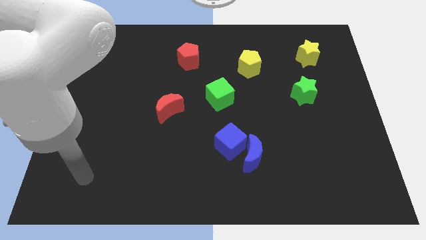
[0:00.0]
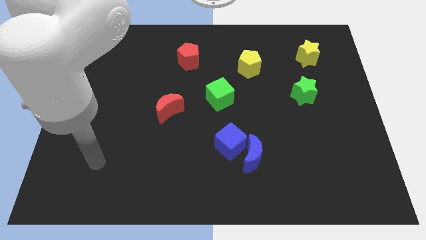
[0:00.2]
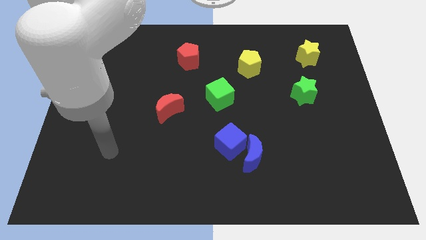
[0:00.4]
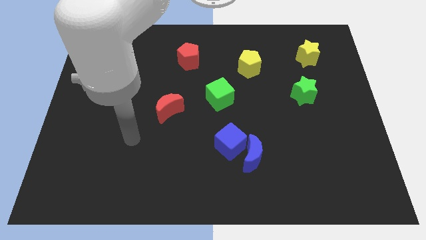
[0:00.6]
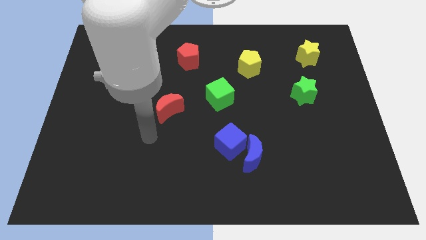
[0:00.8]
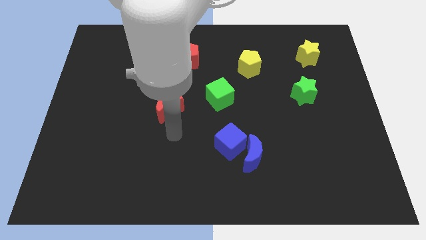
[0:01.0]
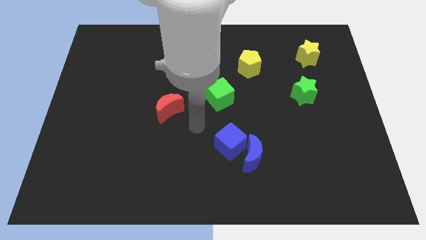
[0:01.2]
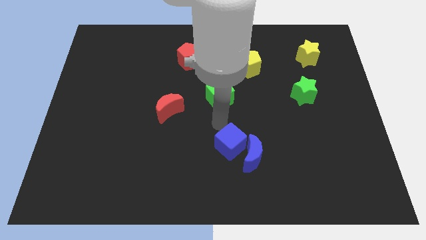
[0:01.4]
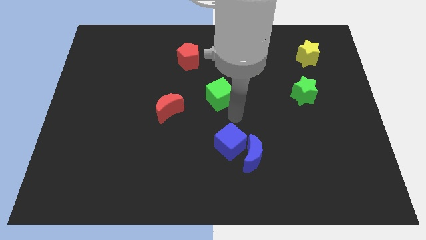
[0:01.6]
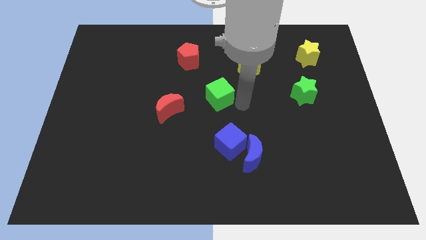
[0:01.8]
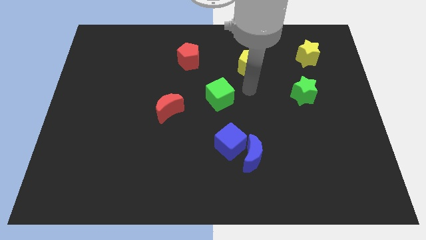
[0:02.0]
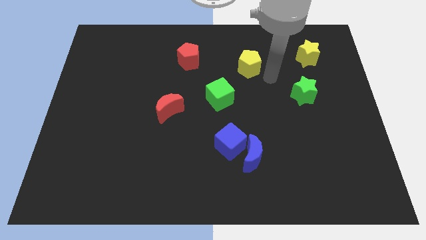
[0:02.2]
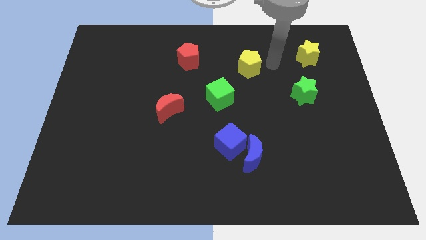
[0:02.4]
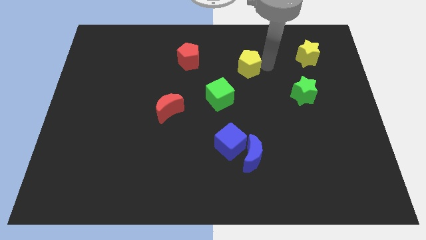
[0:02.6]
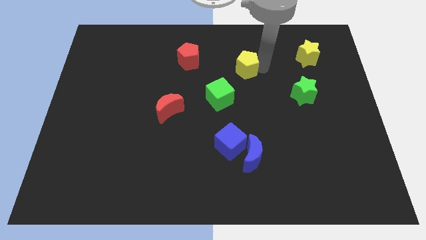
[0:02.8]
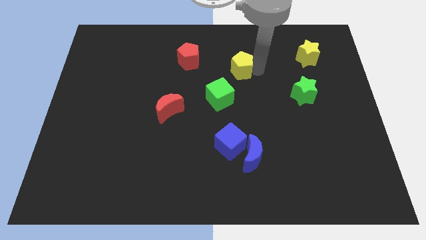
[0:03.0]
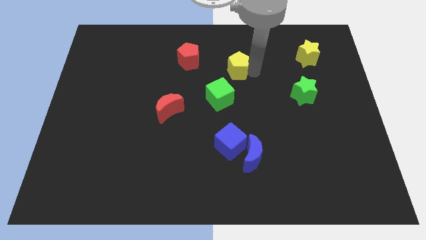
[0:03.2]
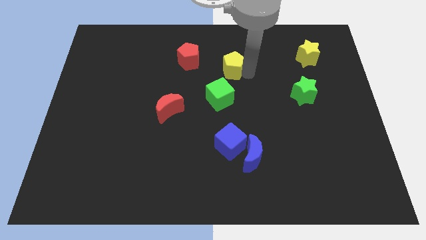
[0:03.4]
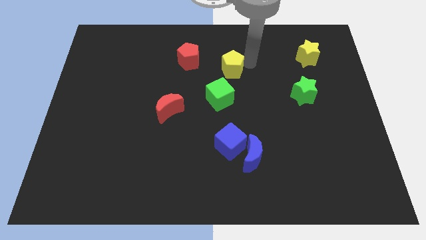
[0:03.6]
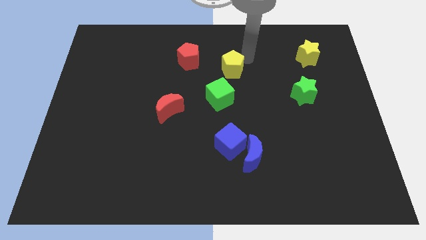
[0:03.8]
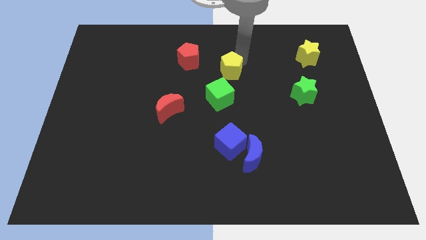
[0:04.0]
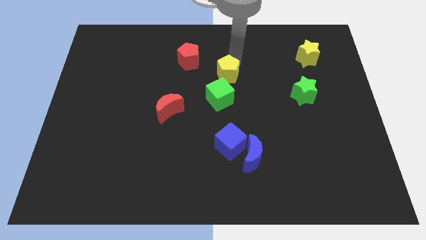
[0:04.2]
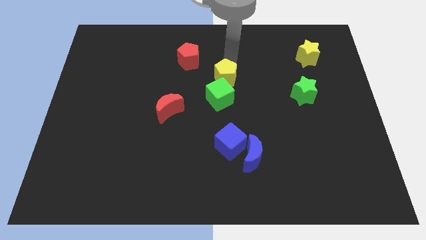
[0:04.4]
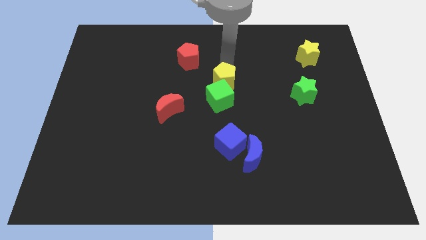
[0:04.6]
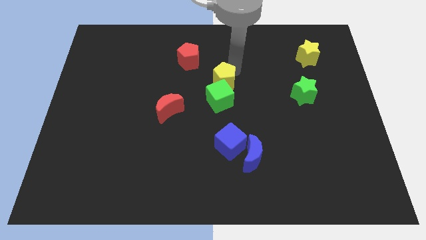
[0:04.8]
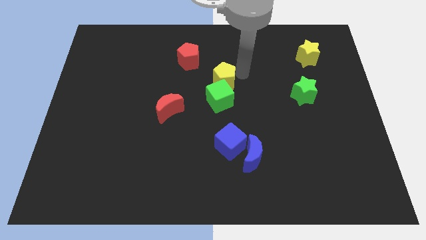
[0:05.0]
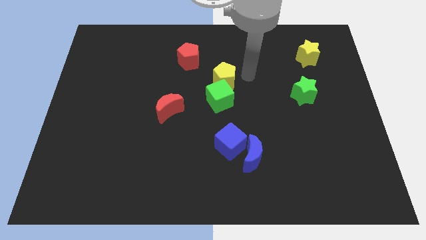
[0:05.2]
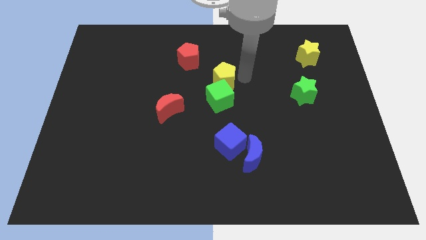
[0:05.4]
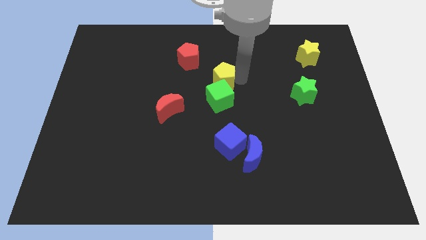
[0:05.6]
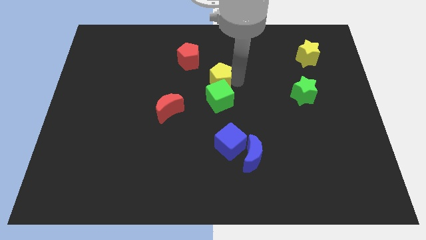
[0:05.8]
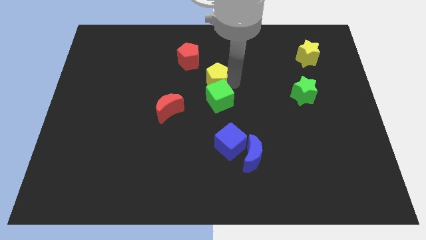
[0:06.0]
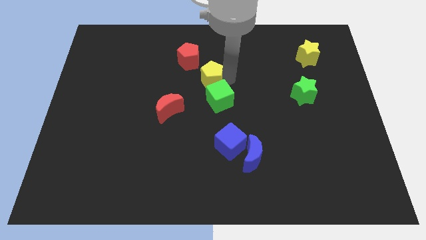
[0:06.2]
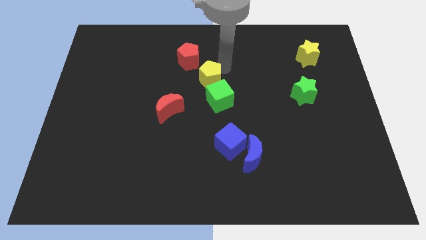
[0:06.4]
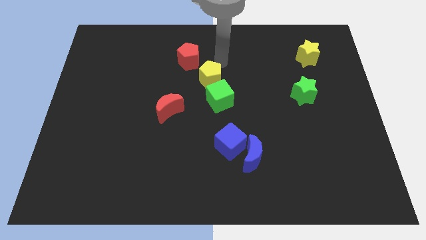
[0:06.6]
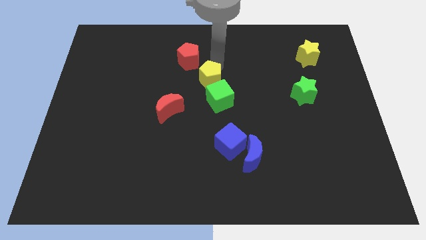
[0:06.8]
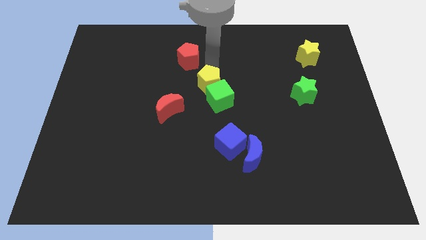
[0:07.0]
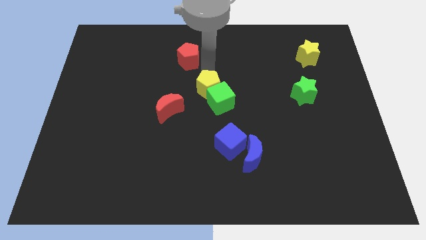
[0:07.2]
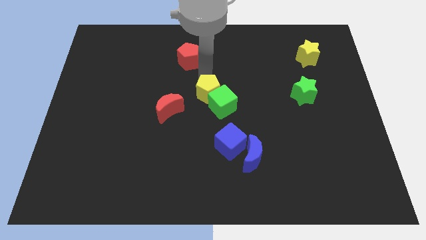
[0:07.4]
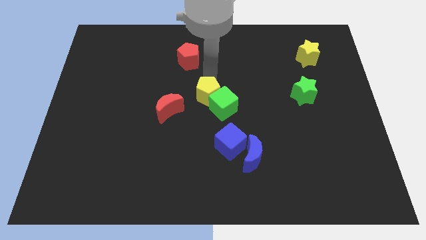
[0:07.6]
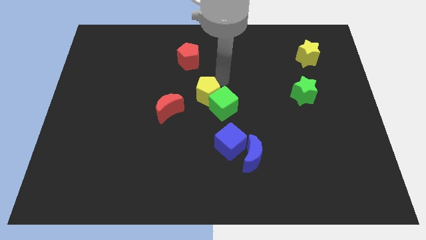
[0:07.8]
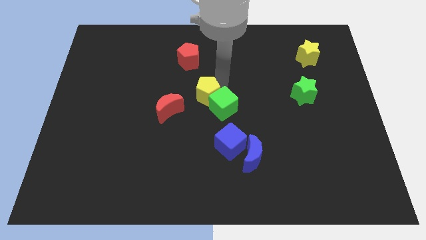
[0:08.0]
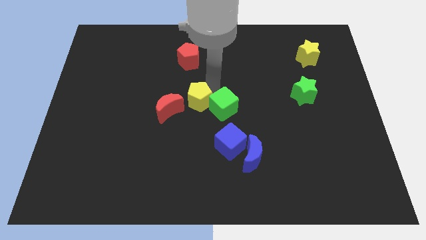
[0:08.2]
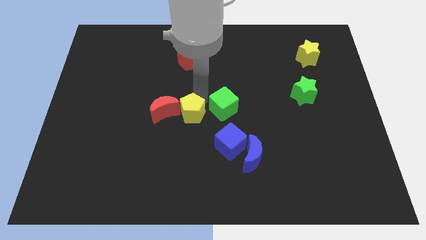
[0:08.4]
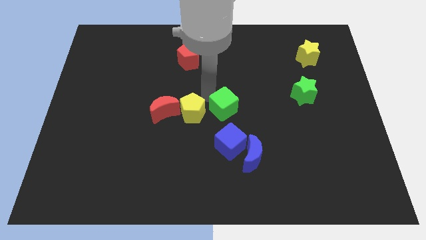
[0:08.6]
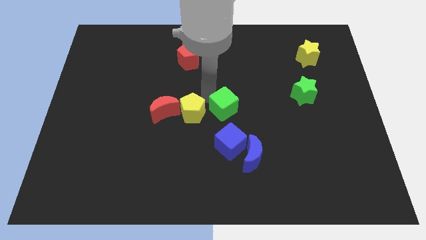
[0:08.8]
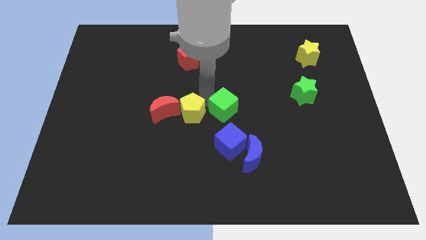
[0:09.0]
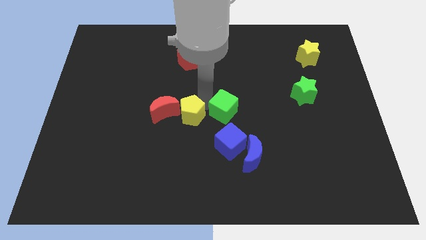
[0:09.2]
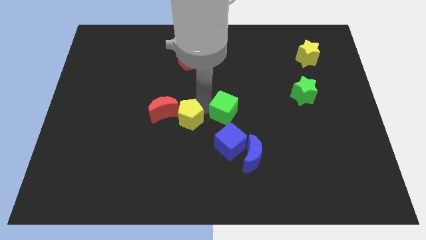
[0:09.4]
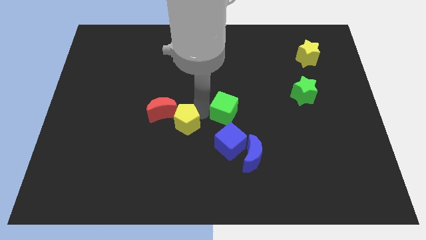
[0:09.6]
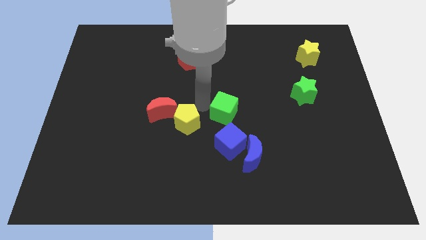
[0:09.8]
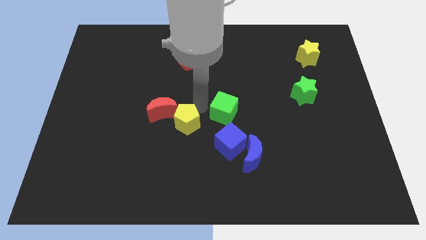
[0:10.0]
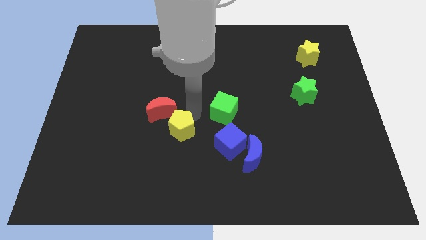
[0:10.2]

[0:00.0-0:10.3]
put the yellow pentagon to the bottom side of the red moon

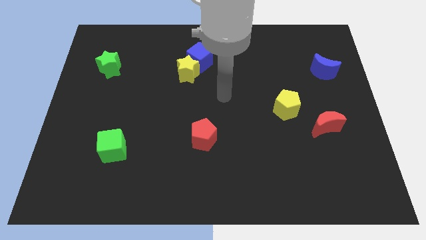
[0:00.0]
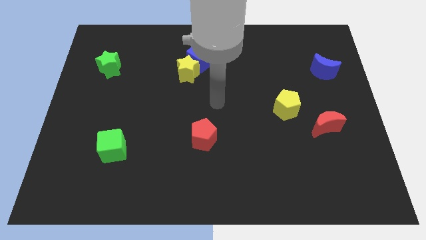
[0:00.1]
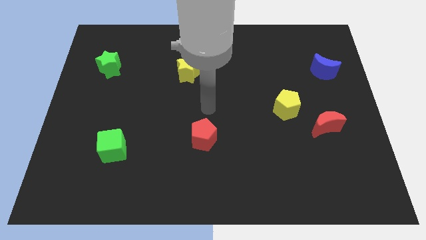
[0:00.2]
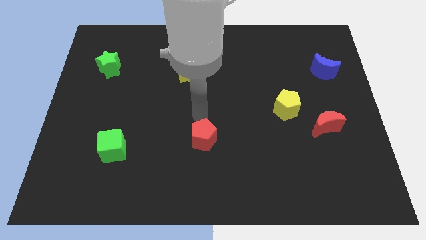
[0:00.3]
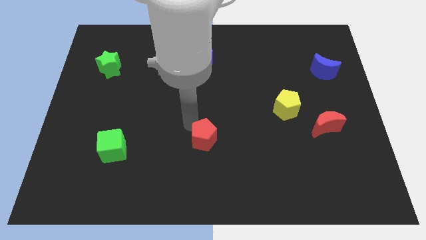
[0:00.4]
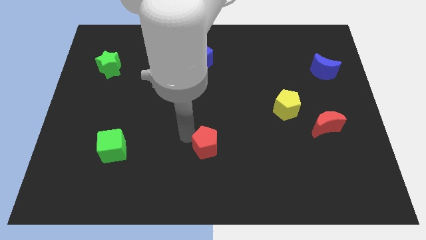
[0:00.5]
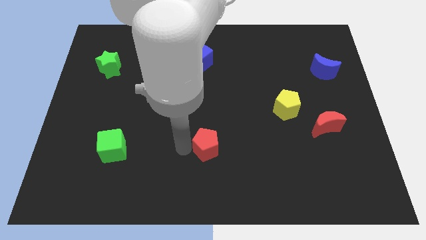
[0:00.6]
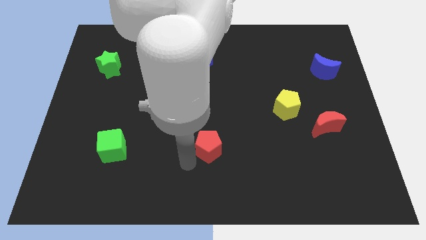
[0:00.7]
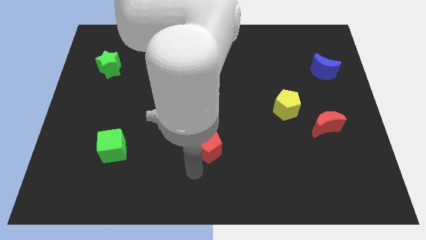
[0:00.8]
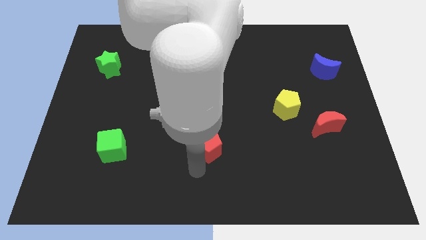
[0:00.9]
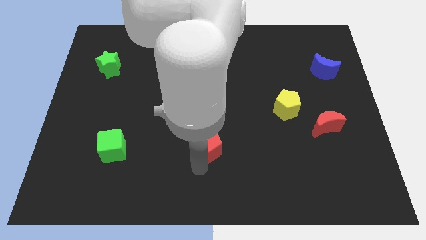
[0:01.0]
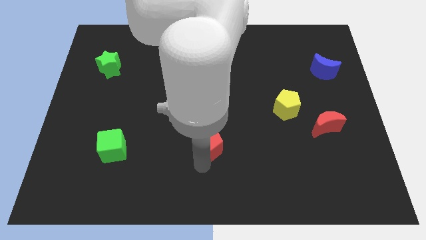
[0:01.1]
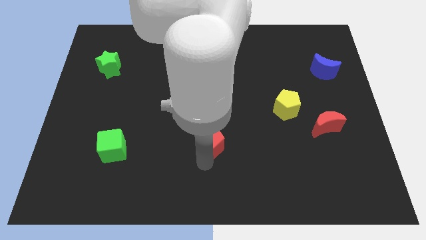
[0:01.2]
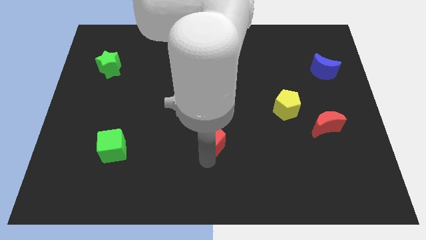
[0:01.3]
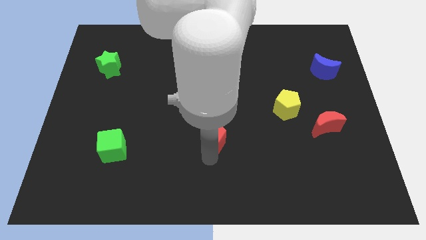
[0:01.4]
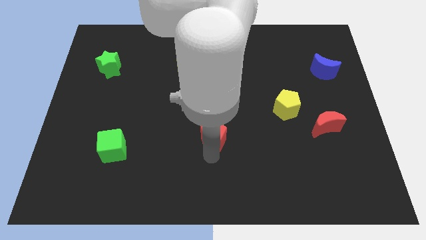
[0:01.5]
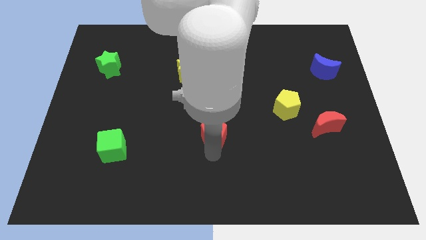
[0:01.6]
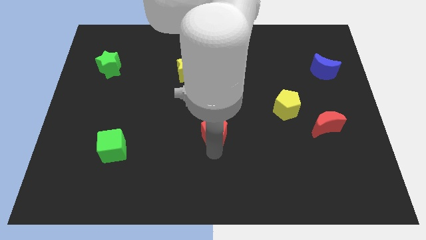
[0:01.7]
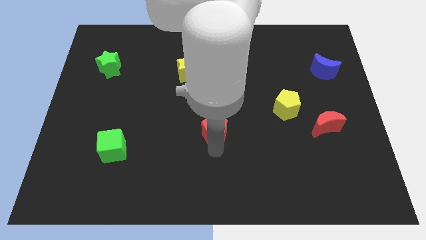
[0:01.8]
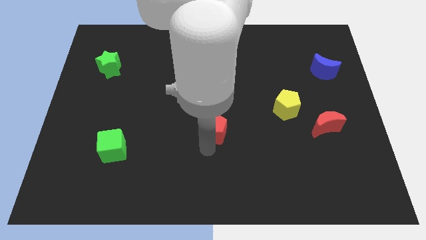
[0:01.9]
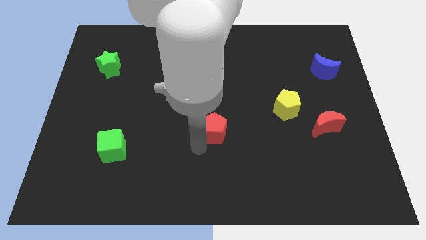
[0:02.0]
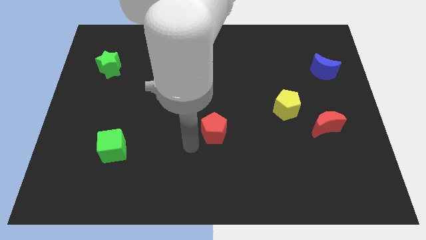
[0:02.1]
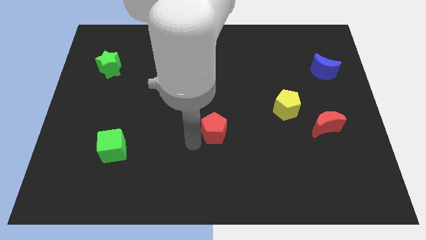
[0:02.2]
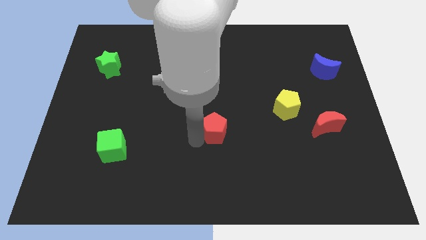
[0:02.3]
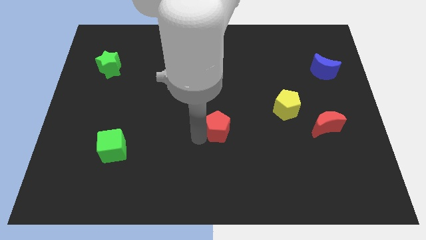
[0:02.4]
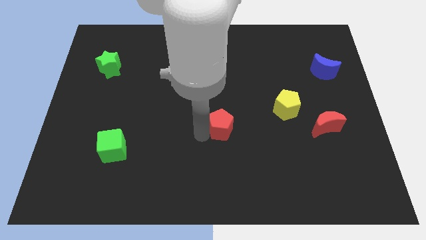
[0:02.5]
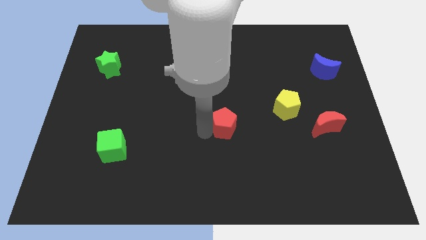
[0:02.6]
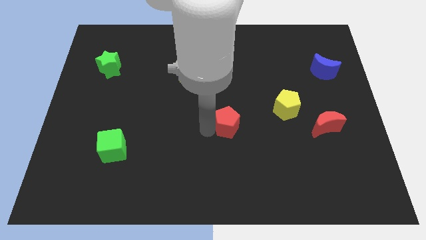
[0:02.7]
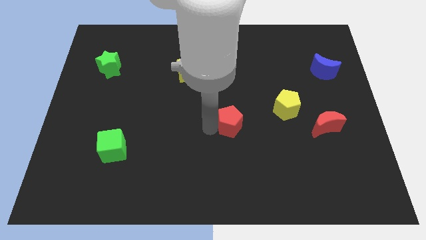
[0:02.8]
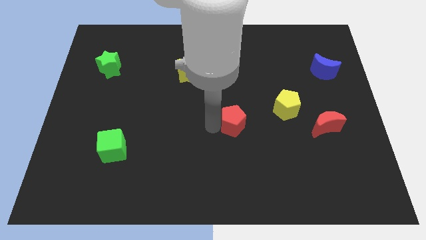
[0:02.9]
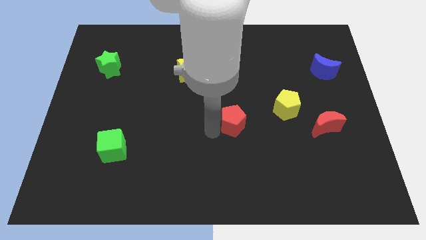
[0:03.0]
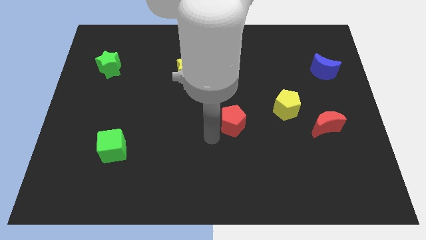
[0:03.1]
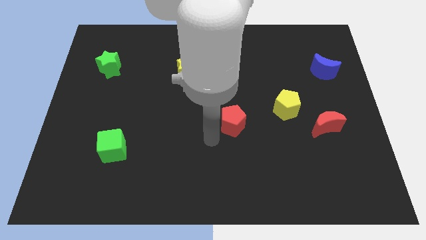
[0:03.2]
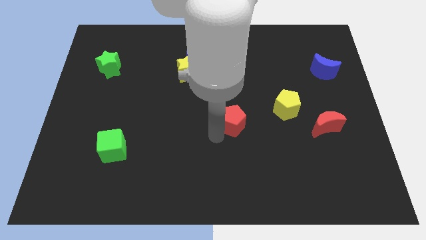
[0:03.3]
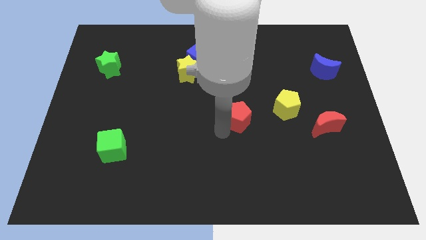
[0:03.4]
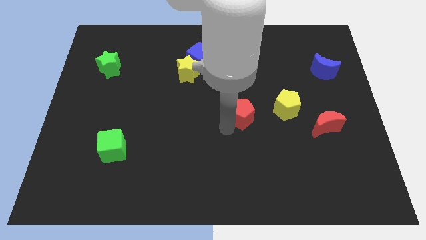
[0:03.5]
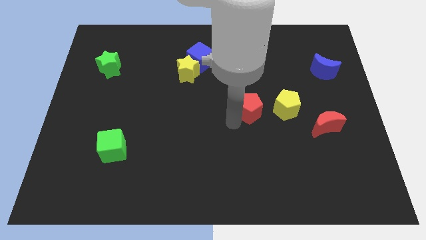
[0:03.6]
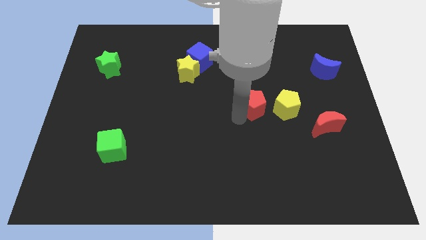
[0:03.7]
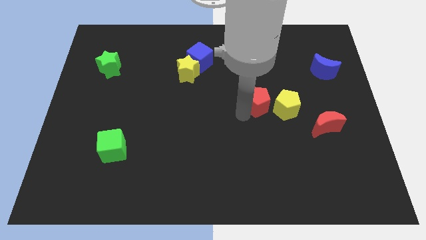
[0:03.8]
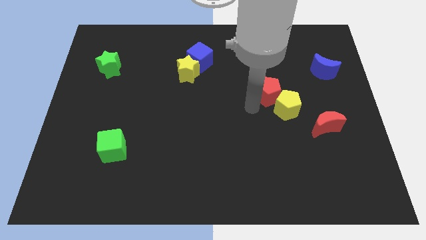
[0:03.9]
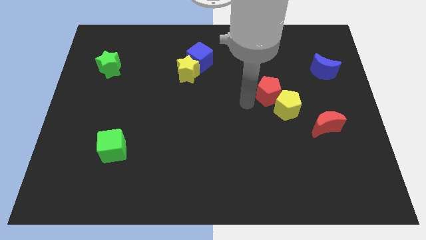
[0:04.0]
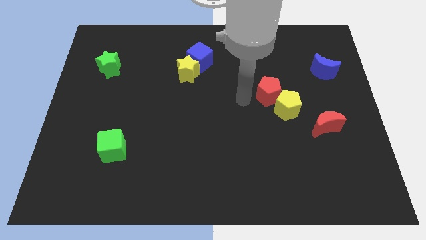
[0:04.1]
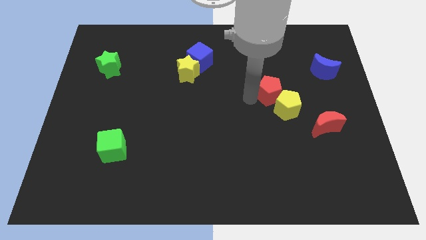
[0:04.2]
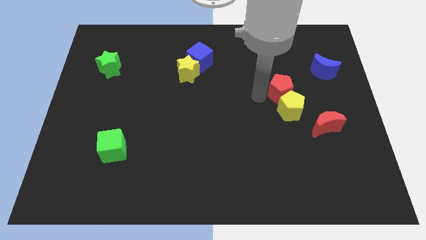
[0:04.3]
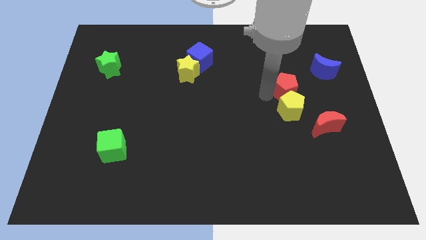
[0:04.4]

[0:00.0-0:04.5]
move the red pentagon to the bottom left of the blue moon
